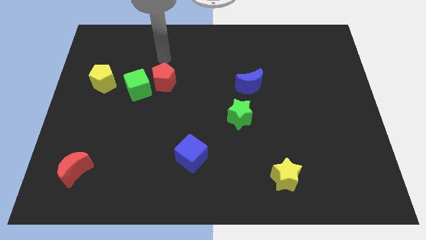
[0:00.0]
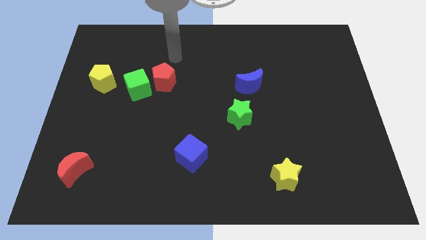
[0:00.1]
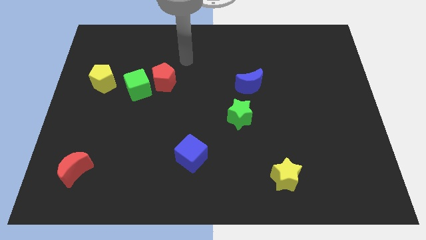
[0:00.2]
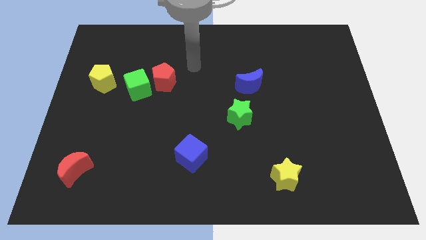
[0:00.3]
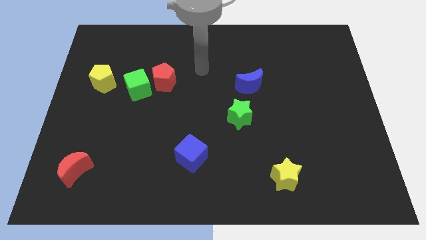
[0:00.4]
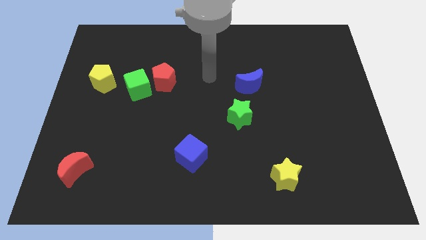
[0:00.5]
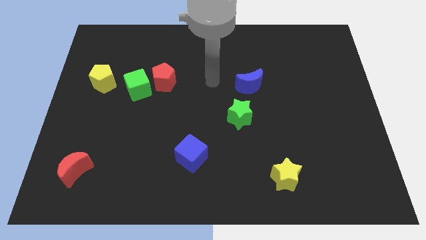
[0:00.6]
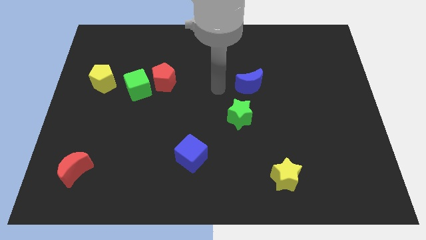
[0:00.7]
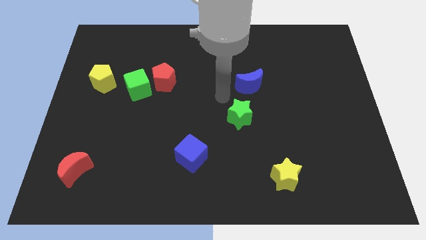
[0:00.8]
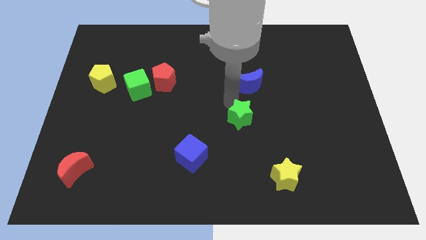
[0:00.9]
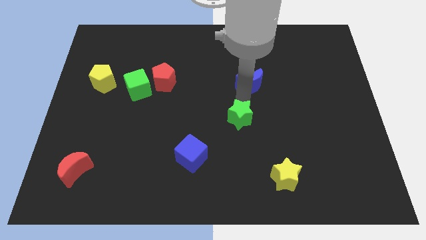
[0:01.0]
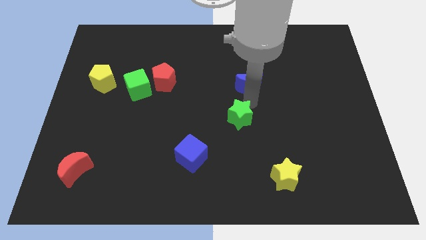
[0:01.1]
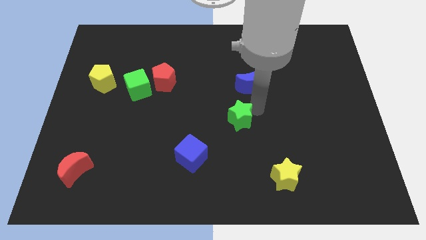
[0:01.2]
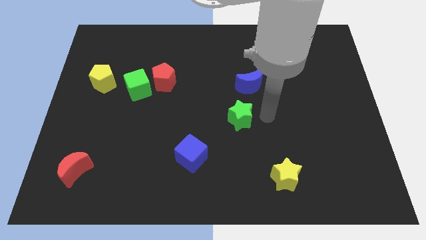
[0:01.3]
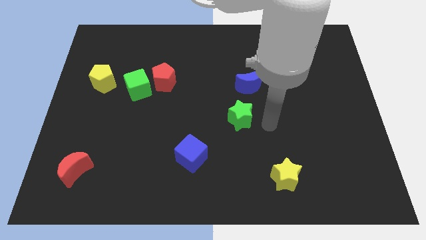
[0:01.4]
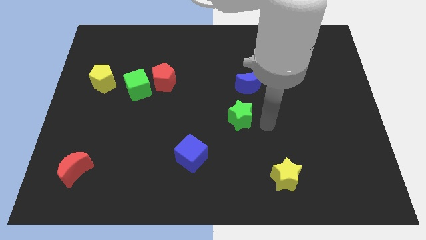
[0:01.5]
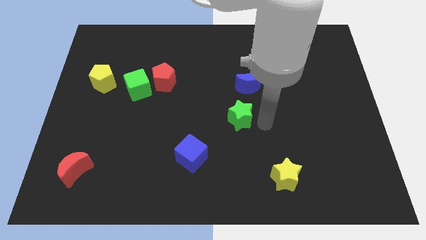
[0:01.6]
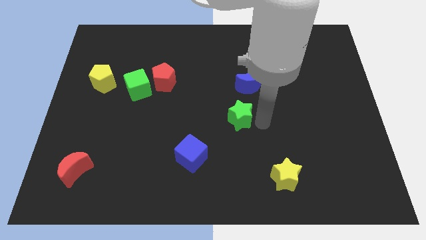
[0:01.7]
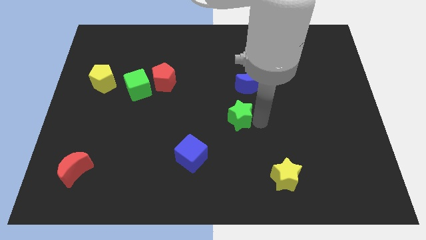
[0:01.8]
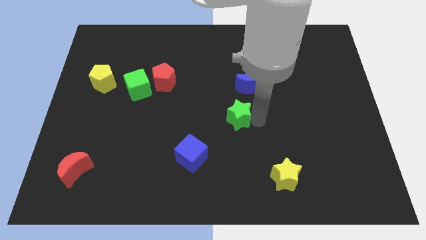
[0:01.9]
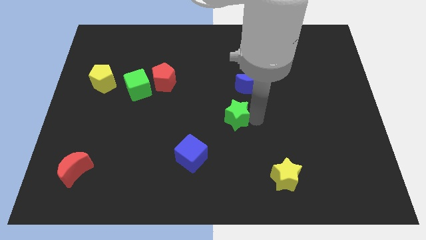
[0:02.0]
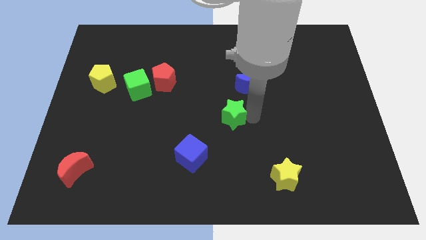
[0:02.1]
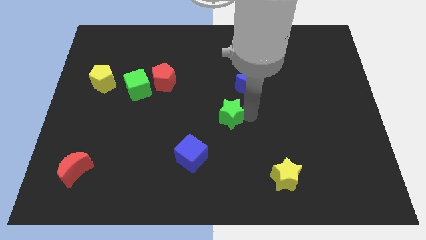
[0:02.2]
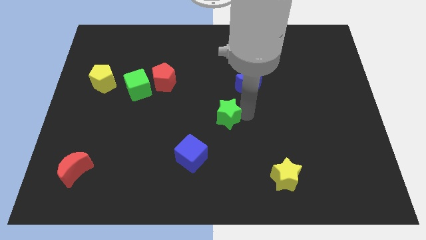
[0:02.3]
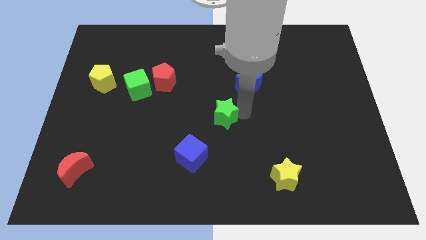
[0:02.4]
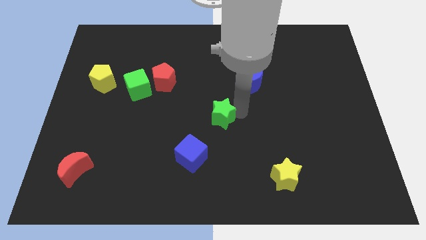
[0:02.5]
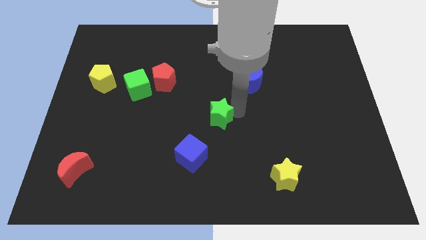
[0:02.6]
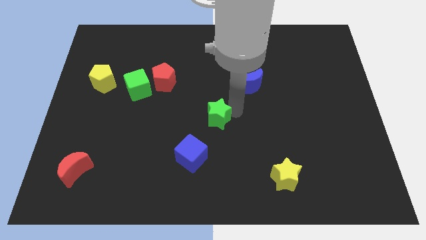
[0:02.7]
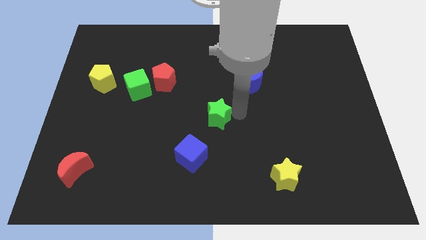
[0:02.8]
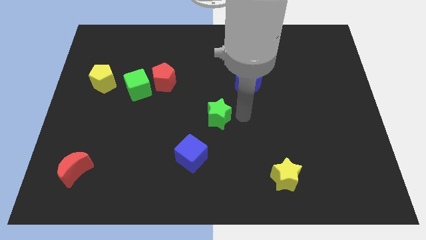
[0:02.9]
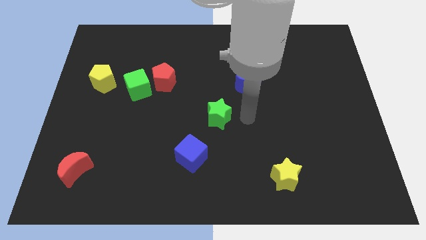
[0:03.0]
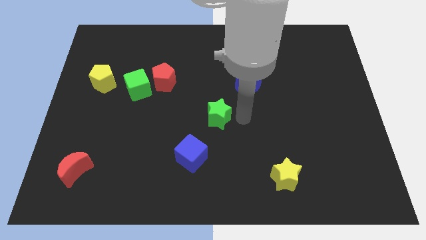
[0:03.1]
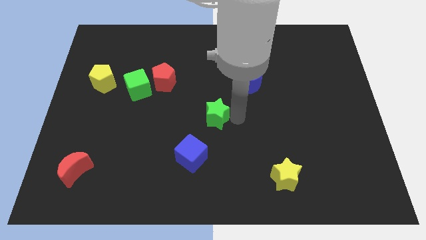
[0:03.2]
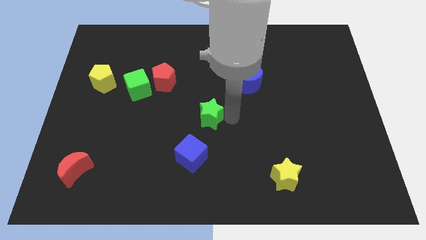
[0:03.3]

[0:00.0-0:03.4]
slightly move the green star to the left

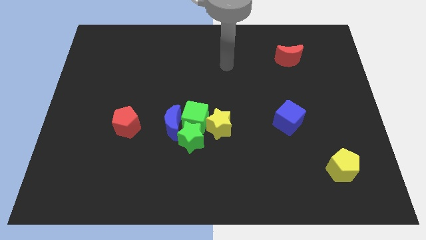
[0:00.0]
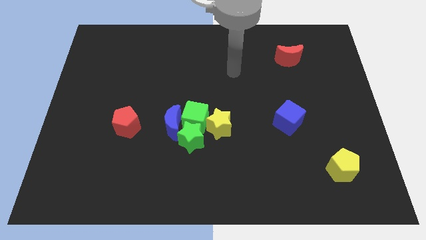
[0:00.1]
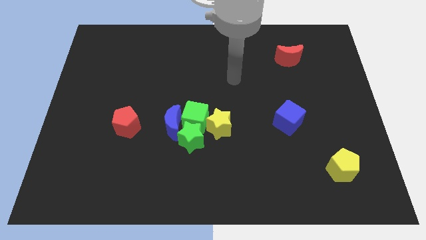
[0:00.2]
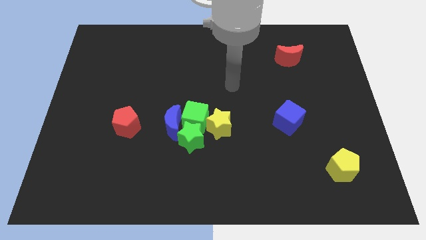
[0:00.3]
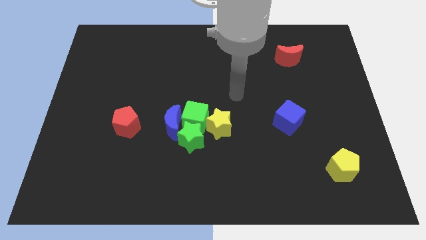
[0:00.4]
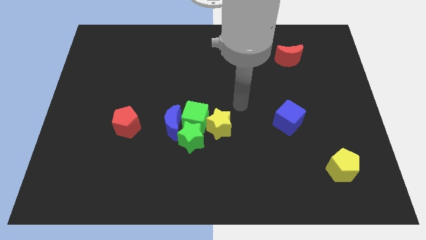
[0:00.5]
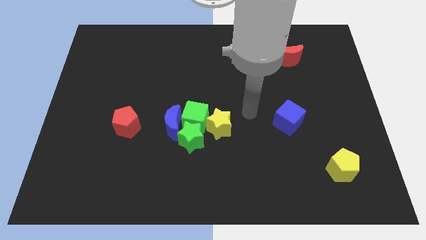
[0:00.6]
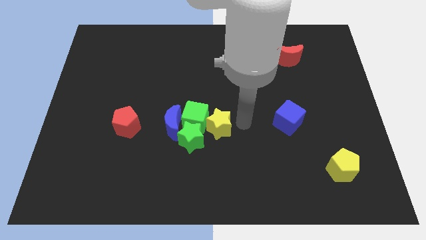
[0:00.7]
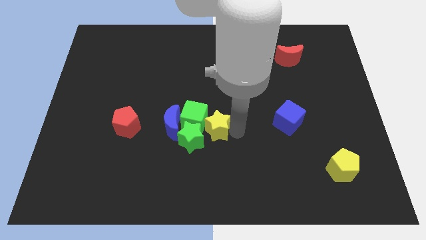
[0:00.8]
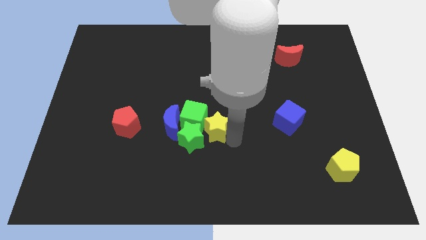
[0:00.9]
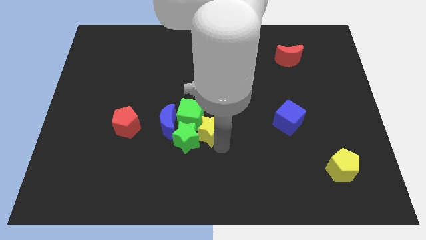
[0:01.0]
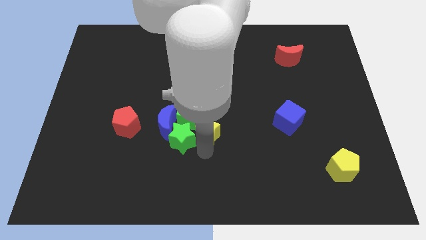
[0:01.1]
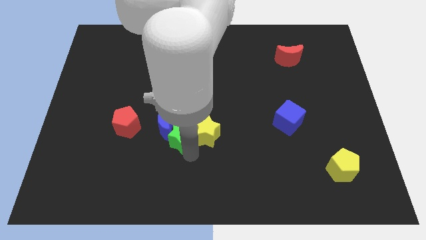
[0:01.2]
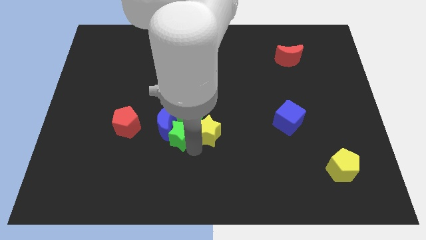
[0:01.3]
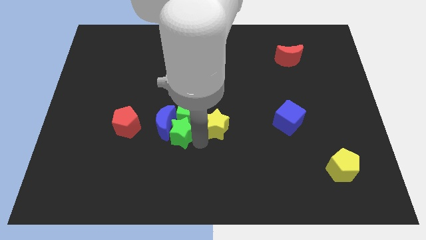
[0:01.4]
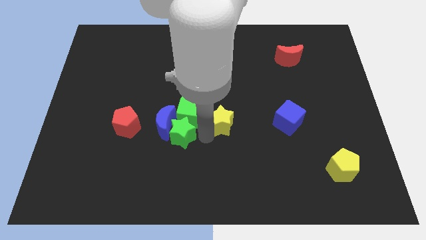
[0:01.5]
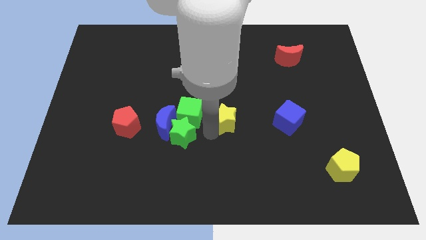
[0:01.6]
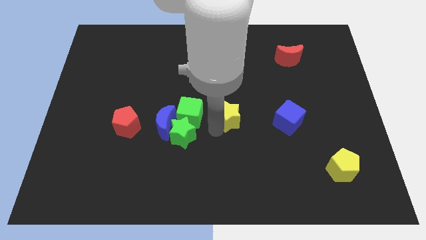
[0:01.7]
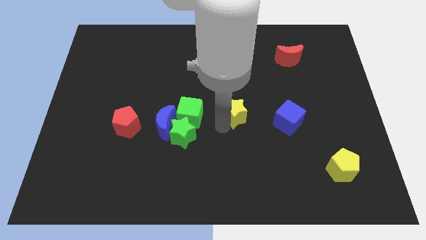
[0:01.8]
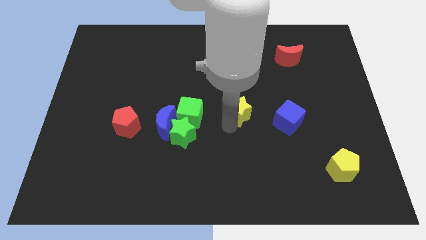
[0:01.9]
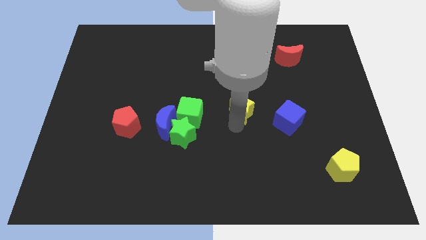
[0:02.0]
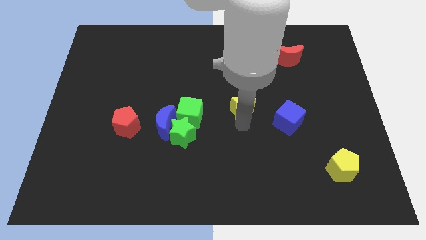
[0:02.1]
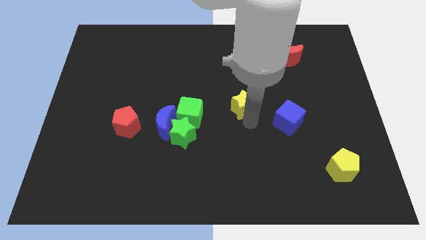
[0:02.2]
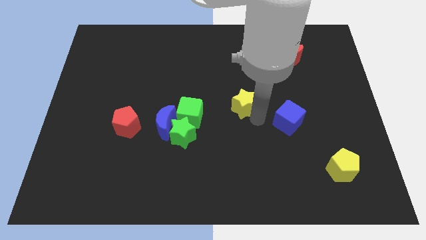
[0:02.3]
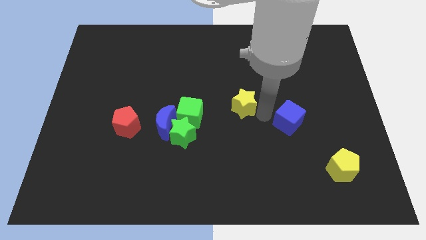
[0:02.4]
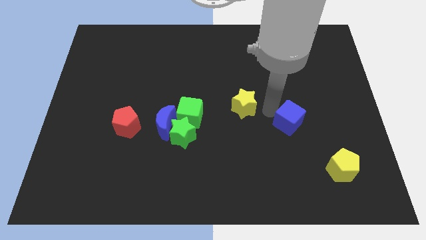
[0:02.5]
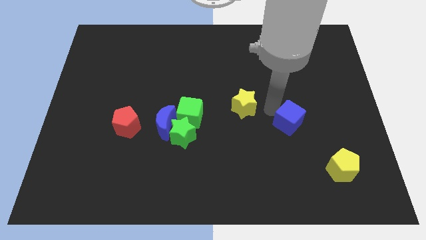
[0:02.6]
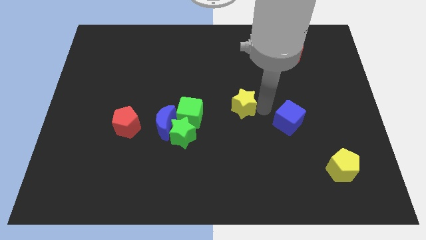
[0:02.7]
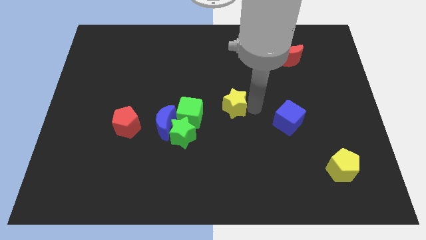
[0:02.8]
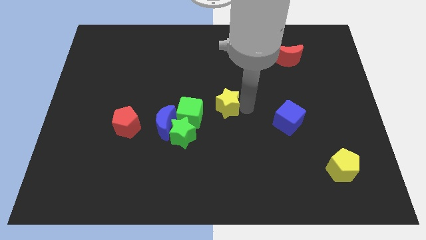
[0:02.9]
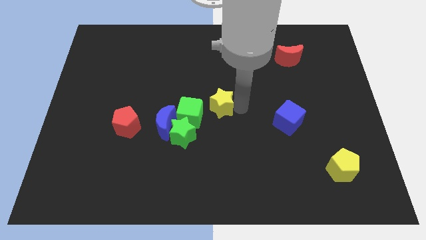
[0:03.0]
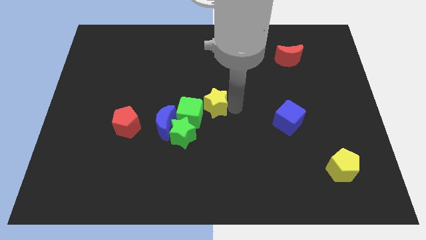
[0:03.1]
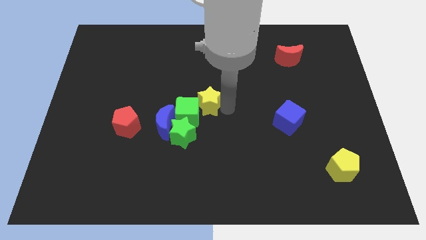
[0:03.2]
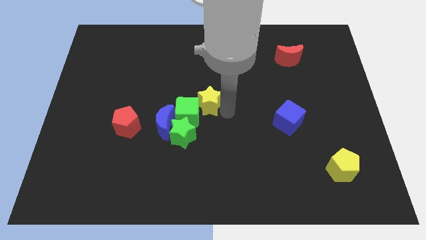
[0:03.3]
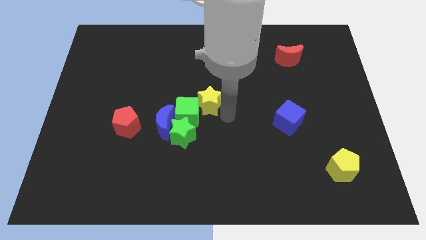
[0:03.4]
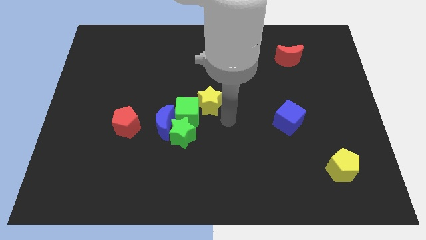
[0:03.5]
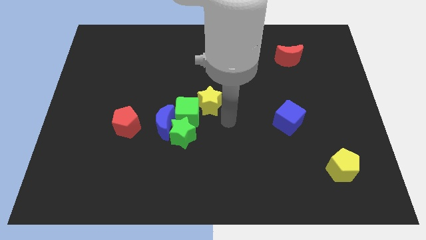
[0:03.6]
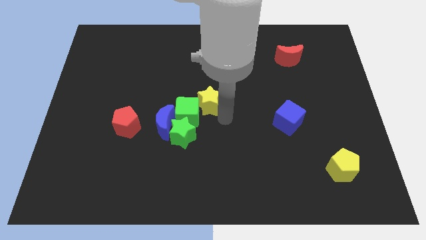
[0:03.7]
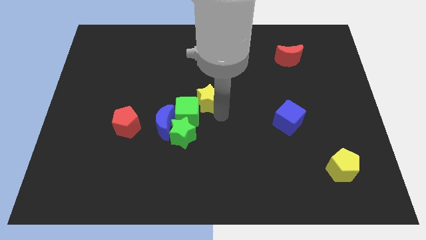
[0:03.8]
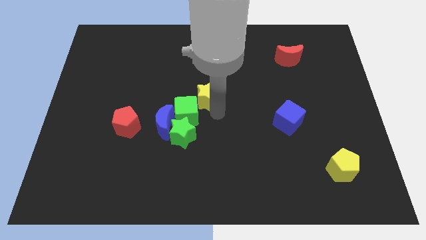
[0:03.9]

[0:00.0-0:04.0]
slightly move the yellow star upwards and then left

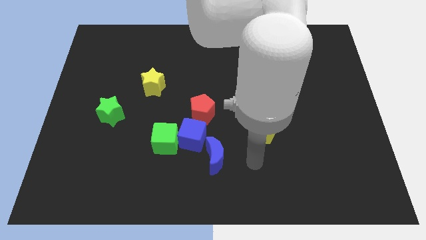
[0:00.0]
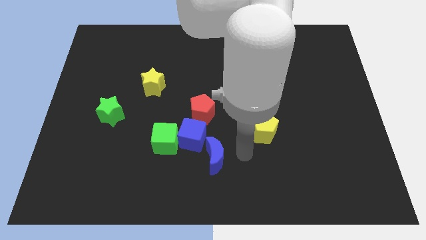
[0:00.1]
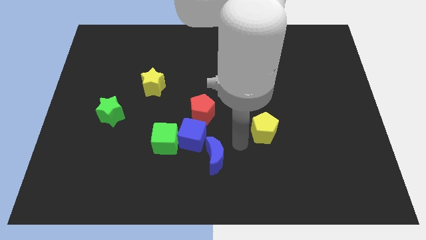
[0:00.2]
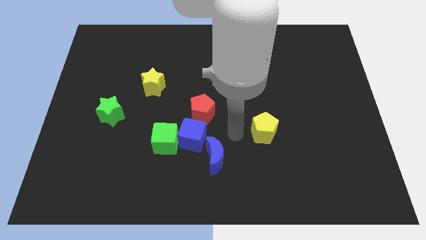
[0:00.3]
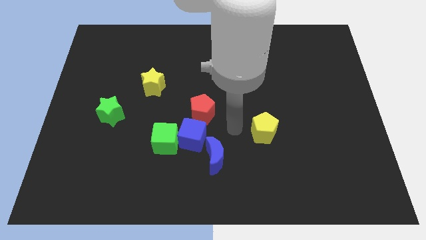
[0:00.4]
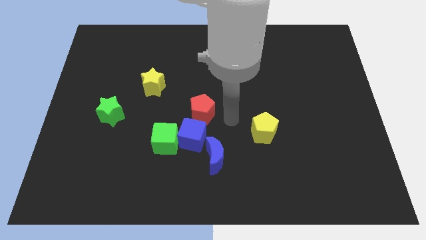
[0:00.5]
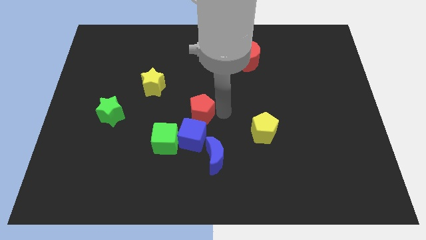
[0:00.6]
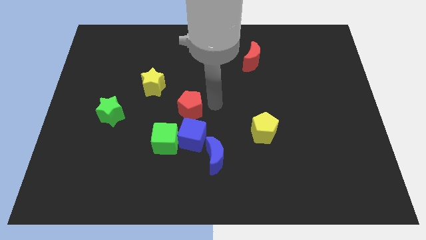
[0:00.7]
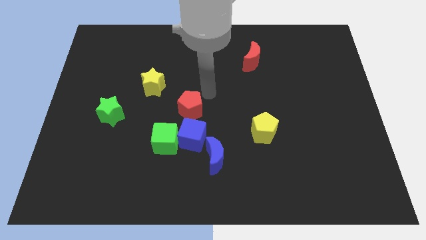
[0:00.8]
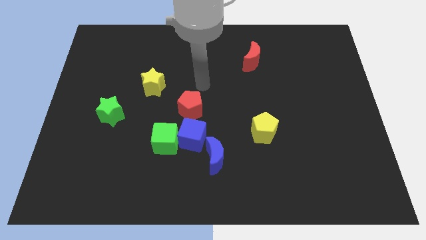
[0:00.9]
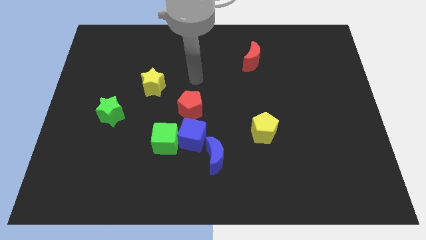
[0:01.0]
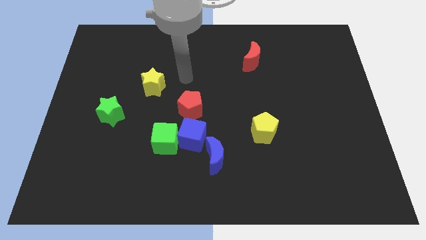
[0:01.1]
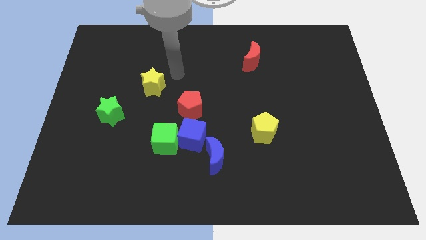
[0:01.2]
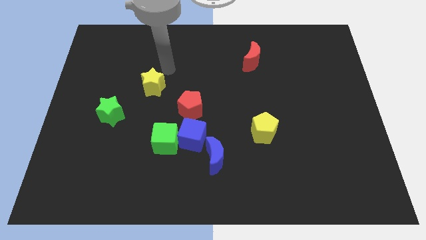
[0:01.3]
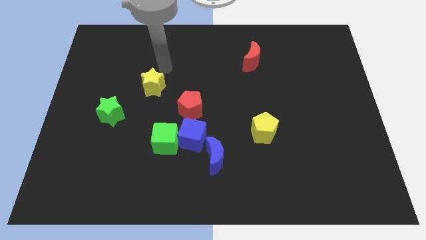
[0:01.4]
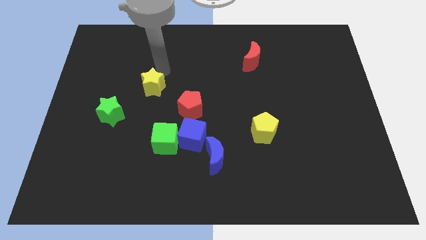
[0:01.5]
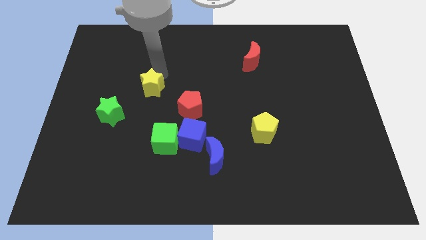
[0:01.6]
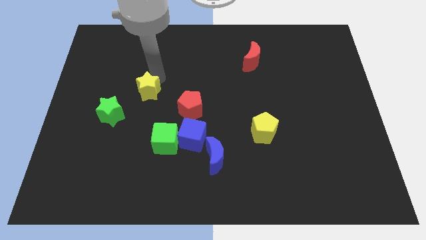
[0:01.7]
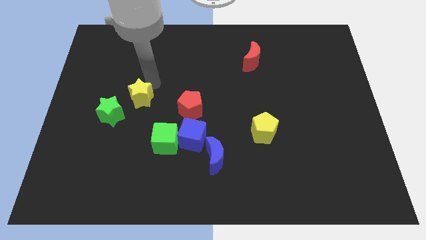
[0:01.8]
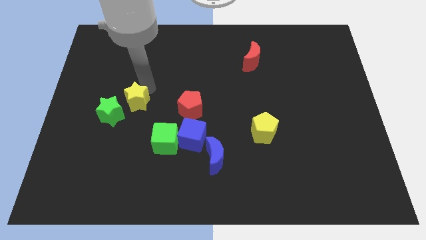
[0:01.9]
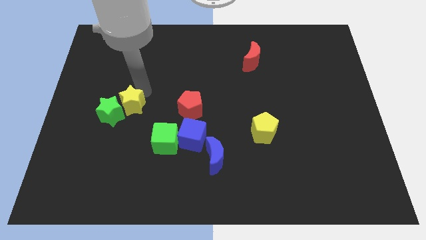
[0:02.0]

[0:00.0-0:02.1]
move the yellow star downwards and to the left slightly
